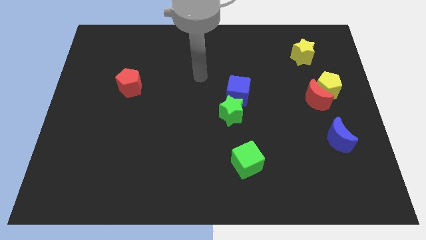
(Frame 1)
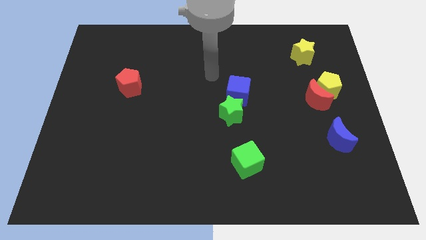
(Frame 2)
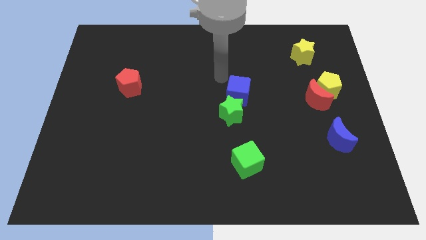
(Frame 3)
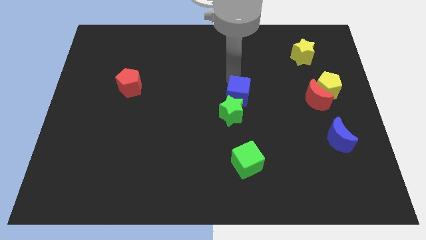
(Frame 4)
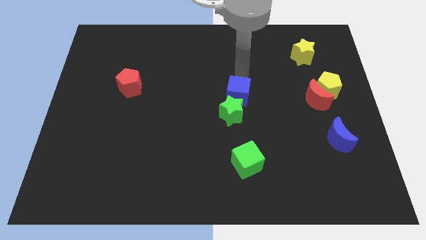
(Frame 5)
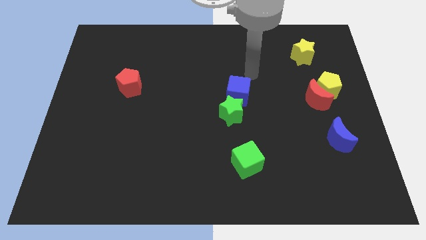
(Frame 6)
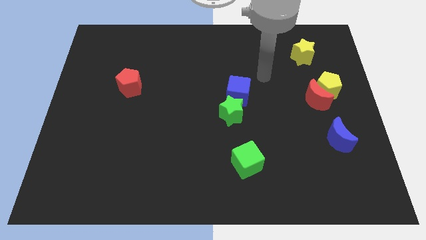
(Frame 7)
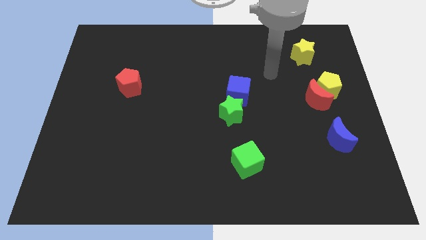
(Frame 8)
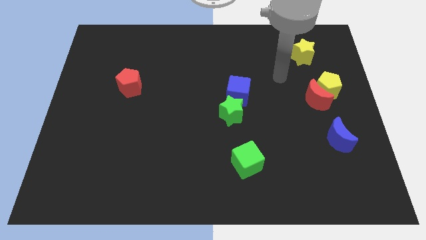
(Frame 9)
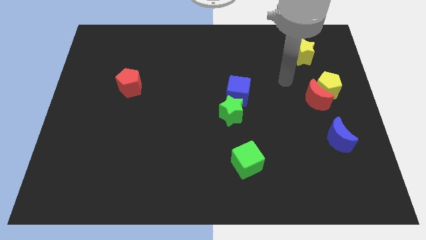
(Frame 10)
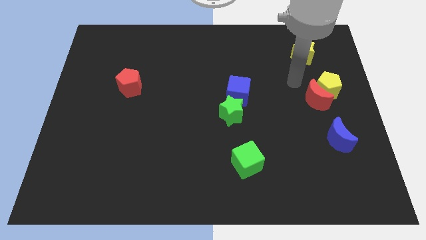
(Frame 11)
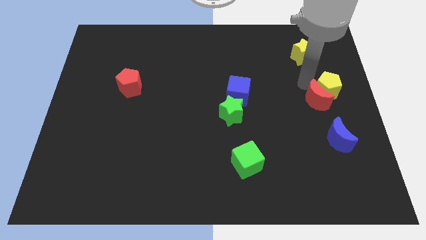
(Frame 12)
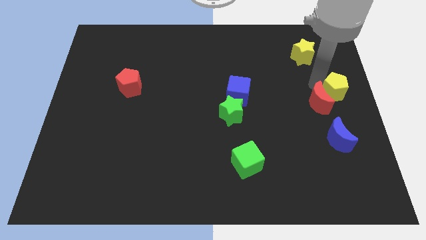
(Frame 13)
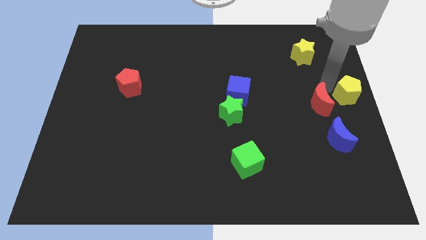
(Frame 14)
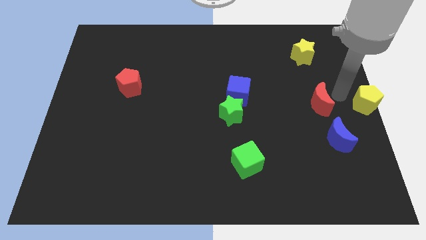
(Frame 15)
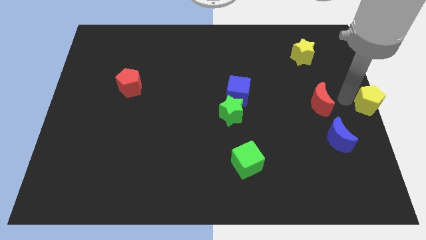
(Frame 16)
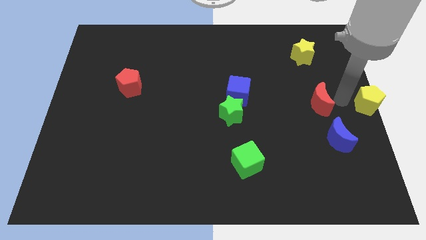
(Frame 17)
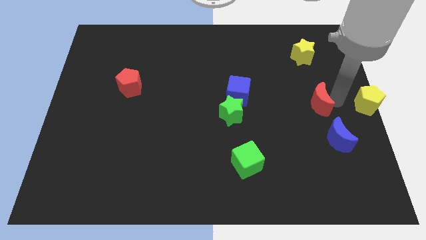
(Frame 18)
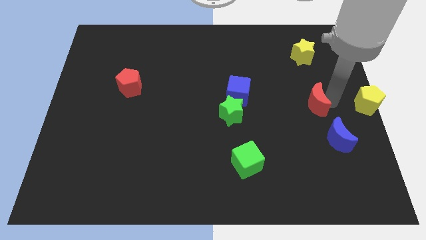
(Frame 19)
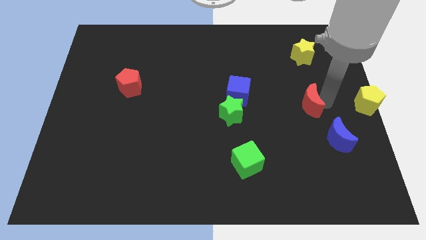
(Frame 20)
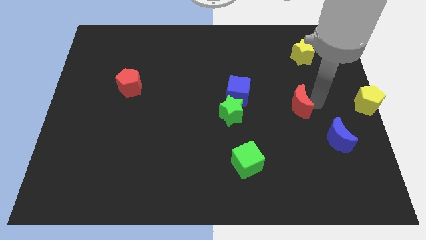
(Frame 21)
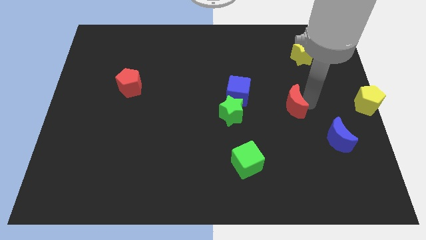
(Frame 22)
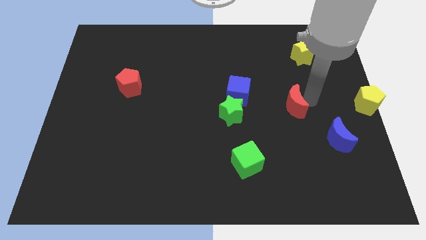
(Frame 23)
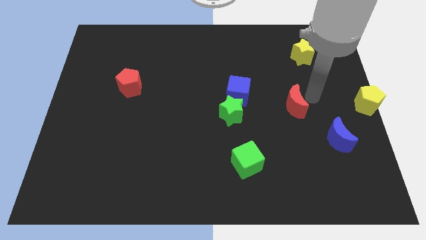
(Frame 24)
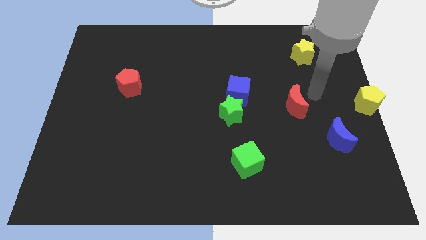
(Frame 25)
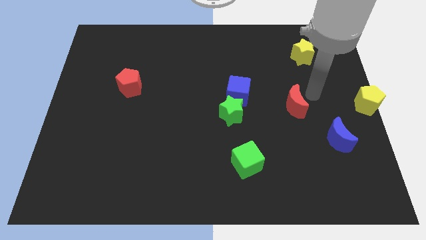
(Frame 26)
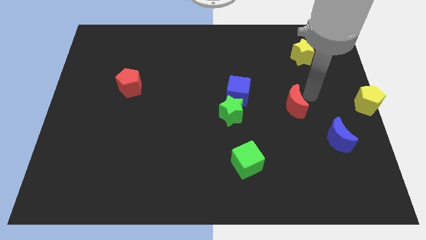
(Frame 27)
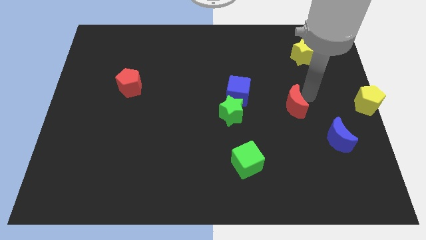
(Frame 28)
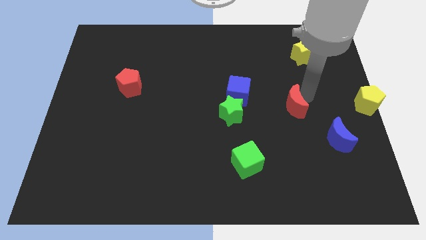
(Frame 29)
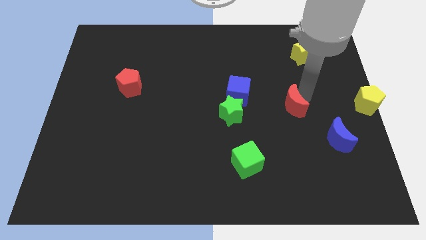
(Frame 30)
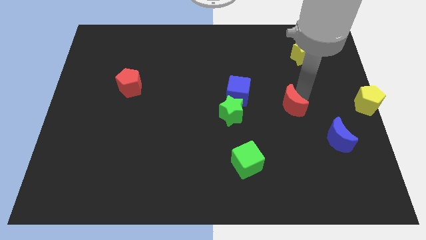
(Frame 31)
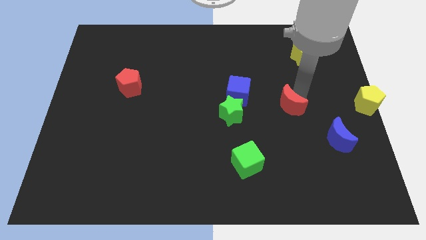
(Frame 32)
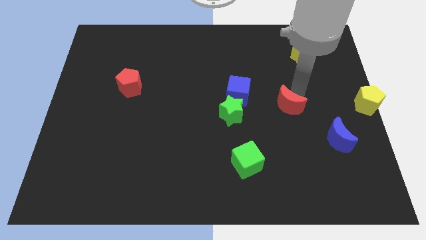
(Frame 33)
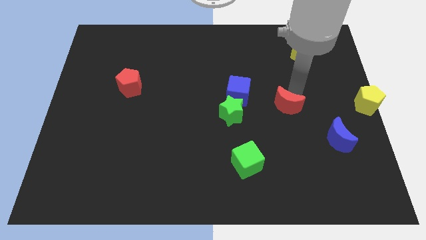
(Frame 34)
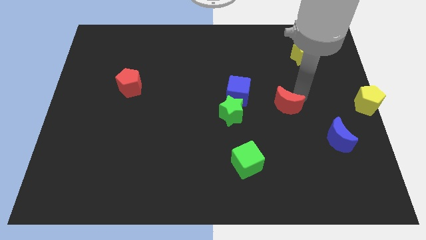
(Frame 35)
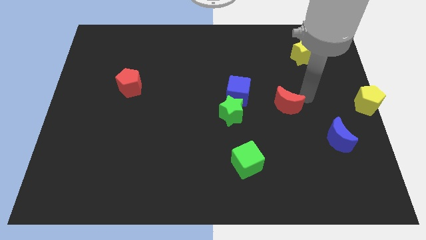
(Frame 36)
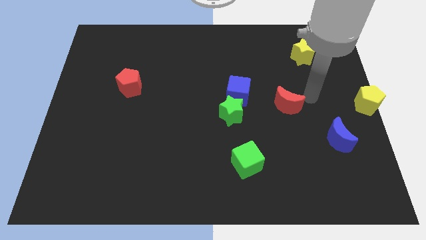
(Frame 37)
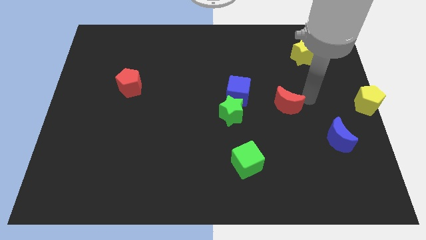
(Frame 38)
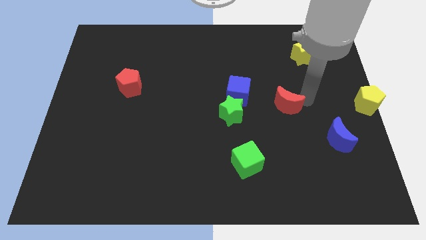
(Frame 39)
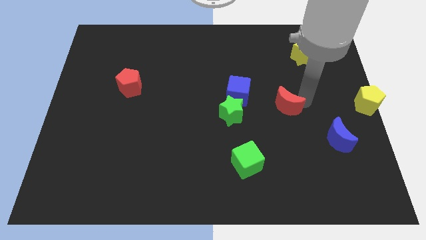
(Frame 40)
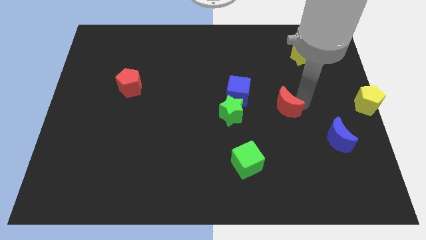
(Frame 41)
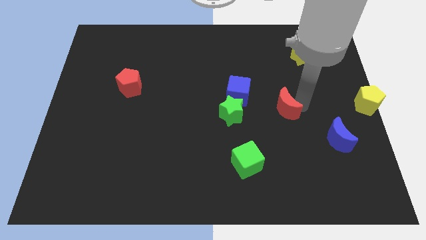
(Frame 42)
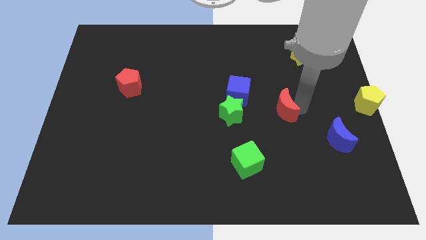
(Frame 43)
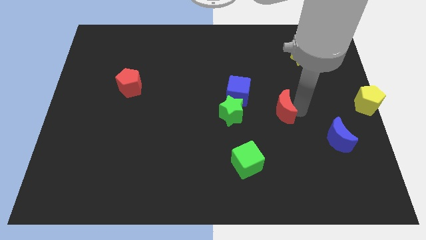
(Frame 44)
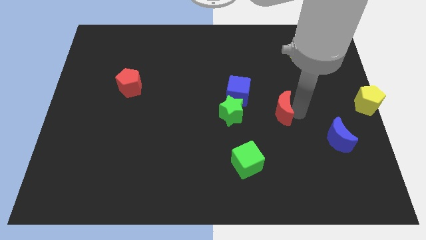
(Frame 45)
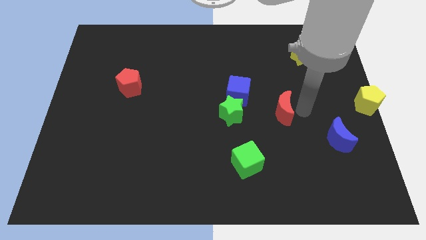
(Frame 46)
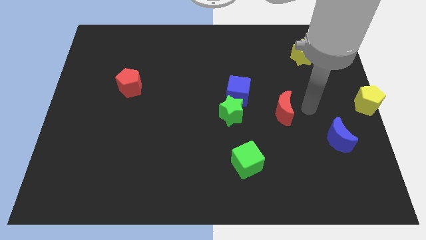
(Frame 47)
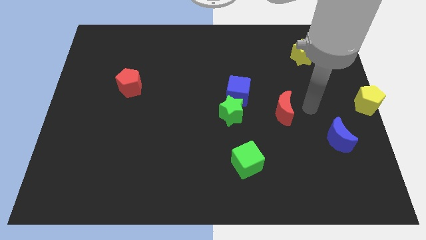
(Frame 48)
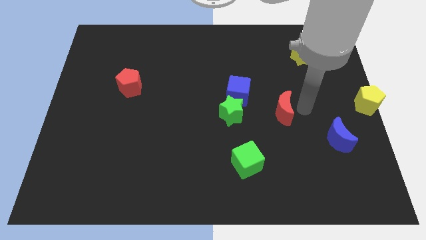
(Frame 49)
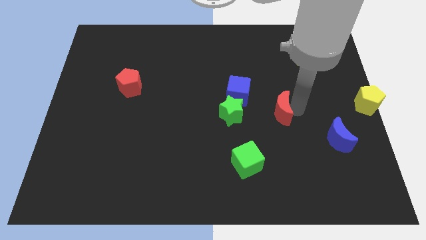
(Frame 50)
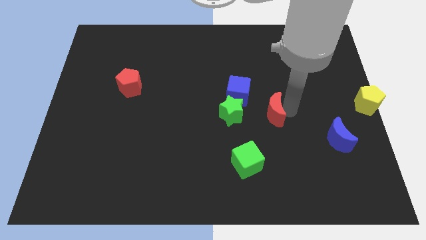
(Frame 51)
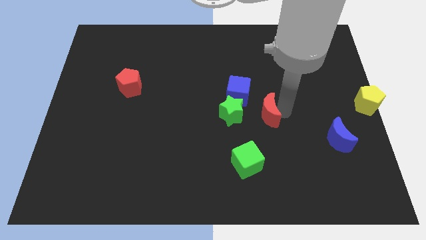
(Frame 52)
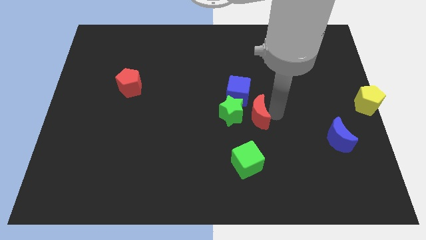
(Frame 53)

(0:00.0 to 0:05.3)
push the red moon close to the green star

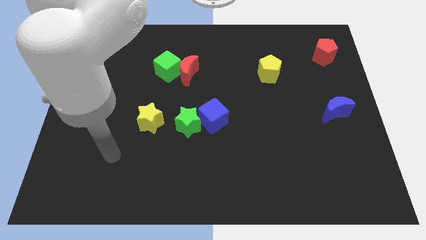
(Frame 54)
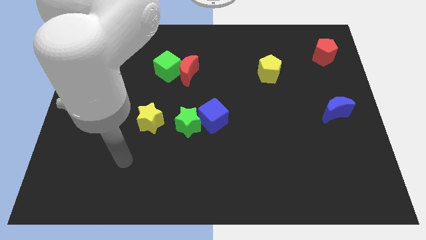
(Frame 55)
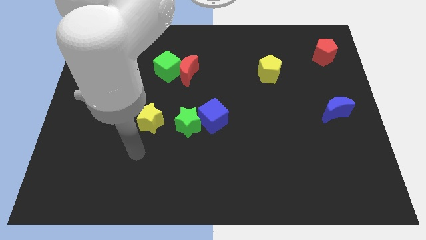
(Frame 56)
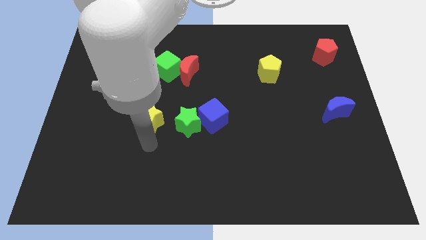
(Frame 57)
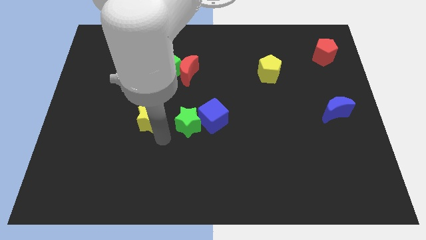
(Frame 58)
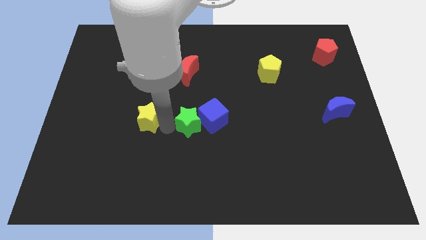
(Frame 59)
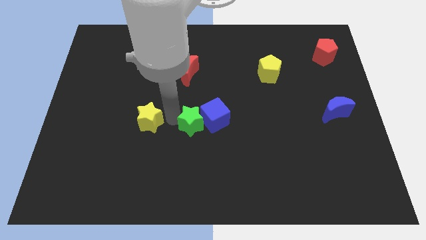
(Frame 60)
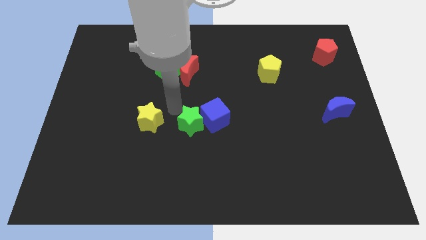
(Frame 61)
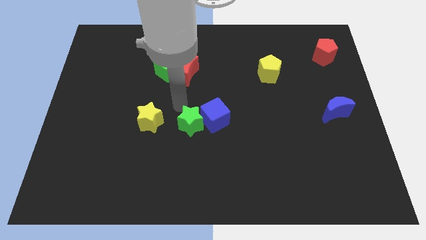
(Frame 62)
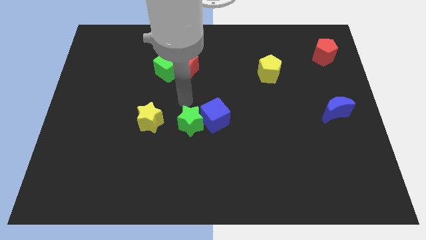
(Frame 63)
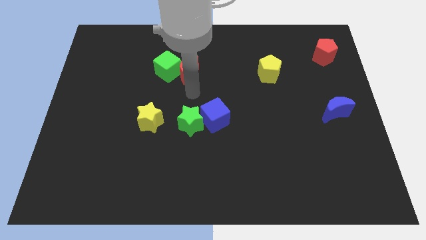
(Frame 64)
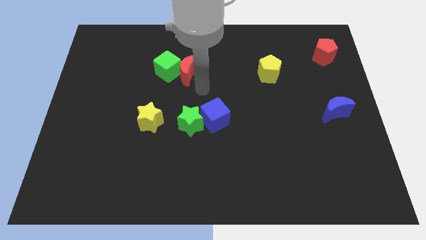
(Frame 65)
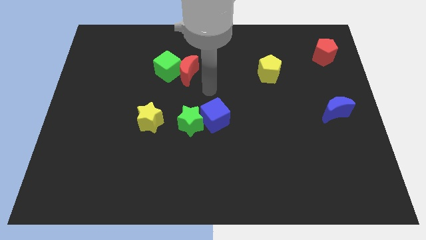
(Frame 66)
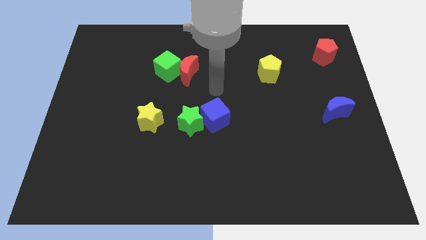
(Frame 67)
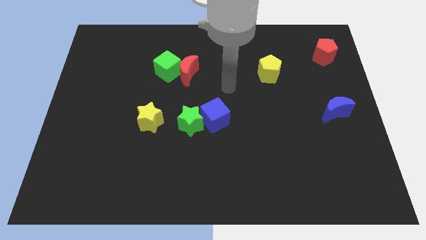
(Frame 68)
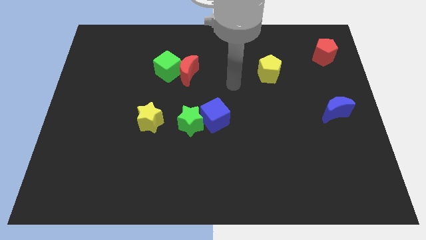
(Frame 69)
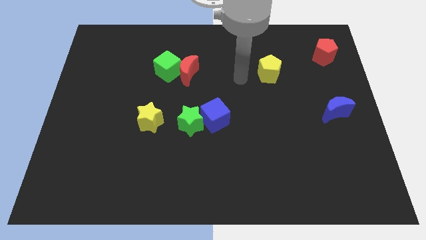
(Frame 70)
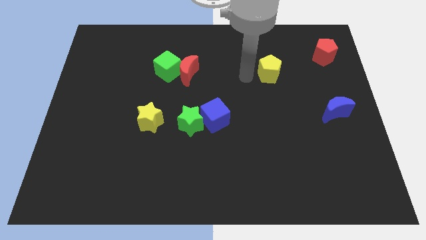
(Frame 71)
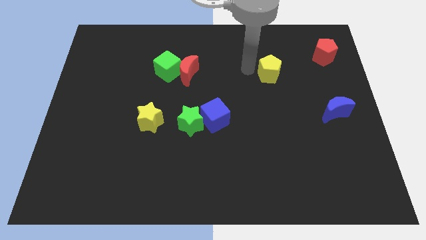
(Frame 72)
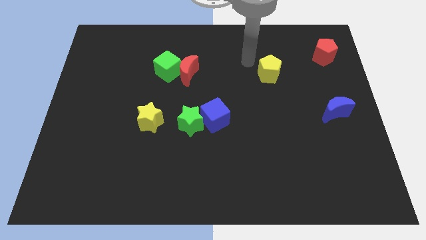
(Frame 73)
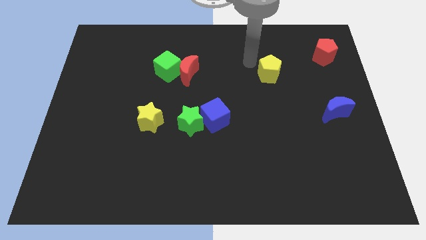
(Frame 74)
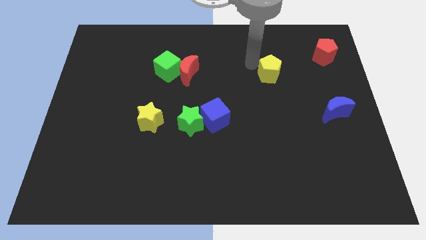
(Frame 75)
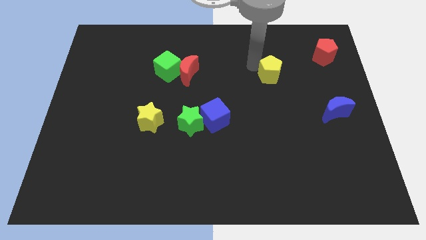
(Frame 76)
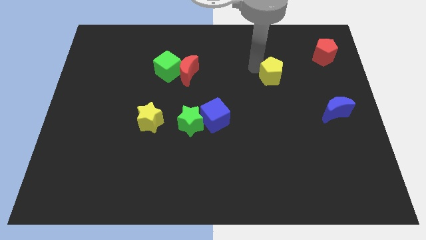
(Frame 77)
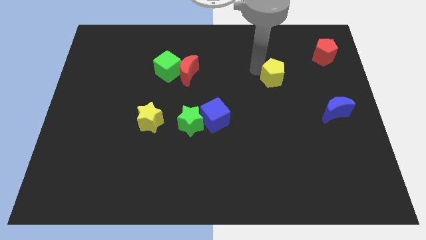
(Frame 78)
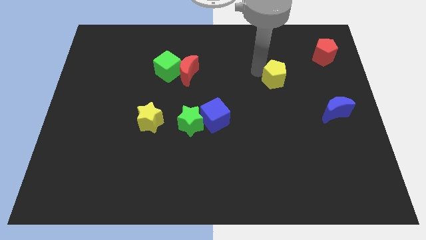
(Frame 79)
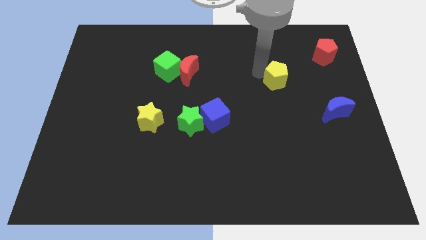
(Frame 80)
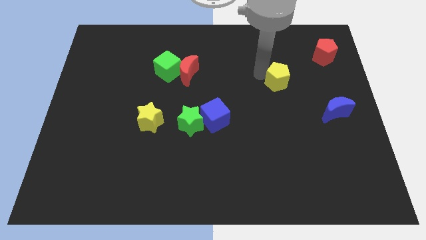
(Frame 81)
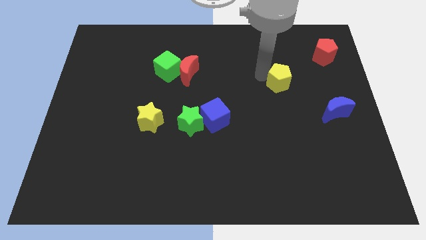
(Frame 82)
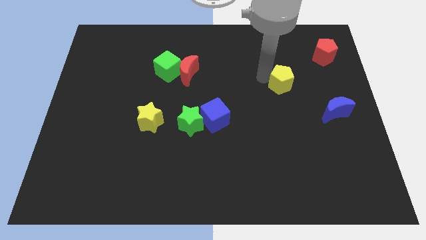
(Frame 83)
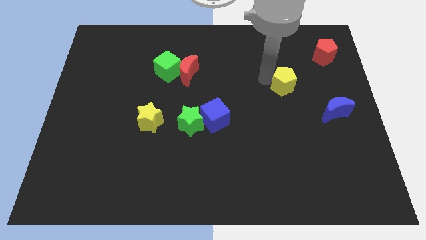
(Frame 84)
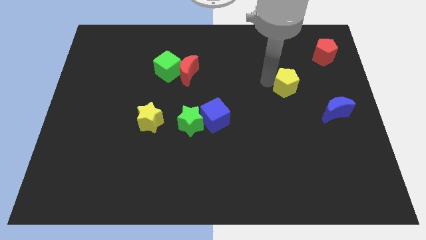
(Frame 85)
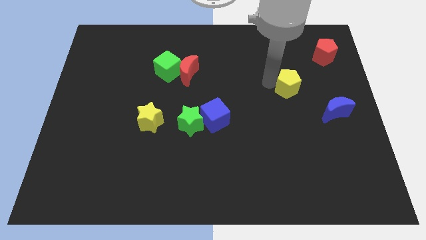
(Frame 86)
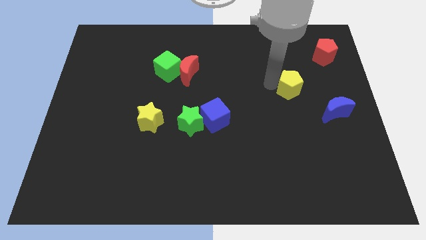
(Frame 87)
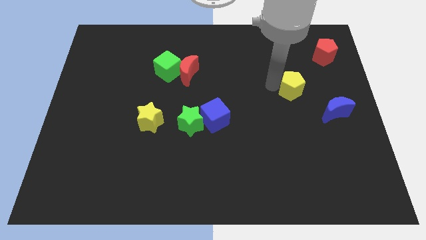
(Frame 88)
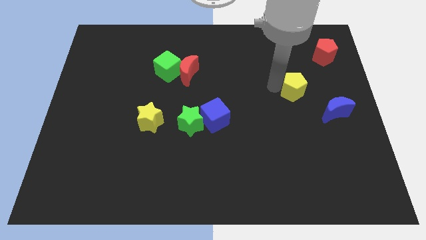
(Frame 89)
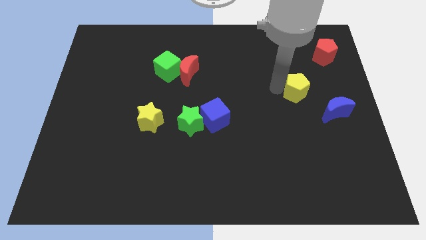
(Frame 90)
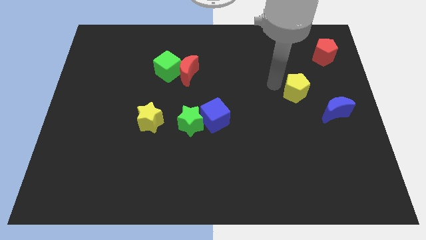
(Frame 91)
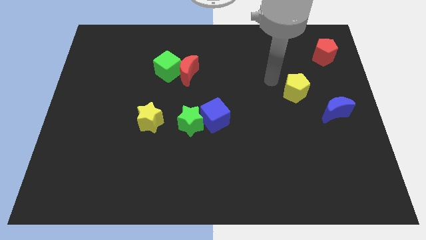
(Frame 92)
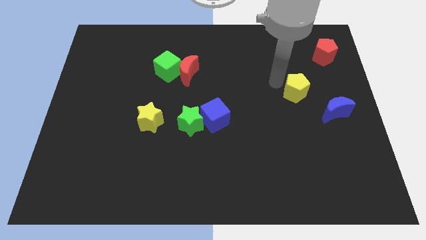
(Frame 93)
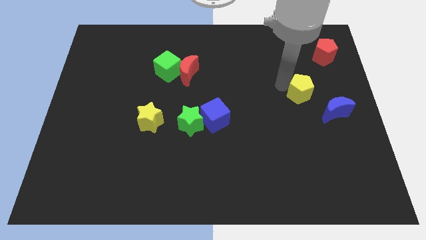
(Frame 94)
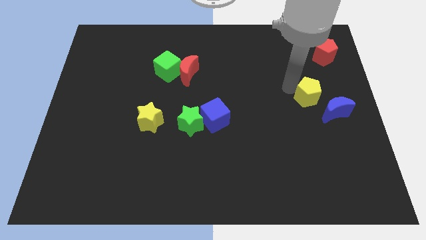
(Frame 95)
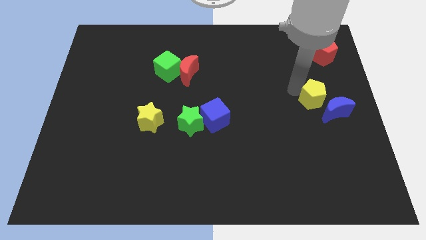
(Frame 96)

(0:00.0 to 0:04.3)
push the yellow pentagon towards the blue moon
